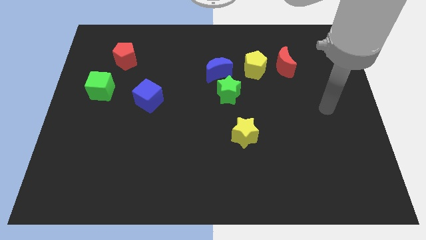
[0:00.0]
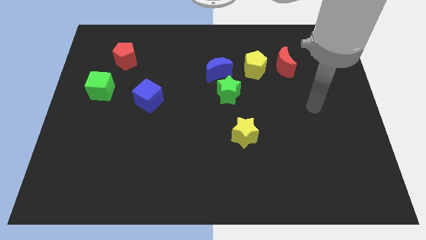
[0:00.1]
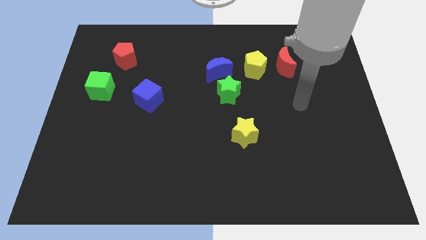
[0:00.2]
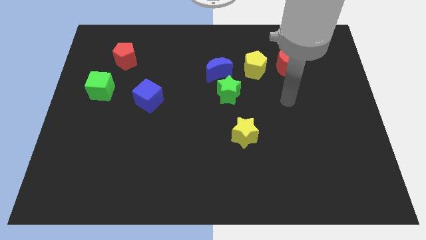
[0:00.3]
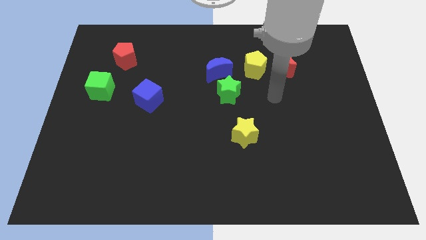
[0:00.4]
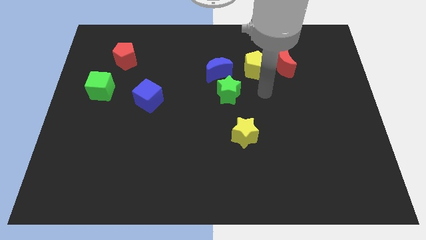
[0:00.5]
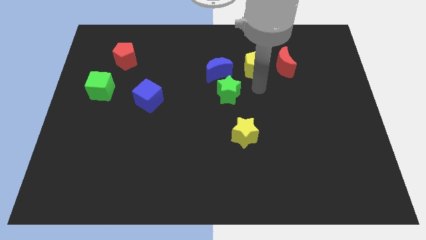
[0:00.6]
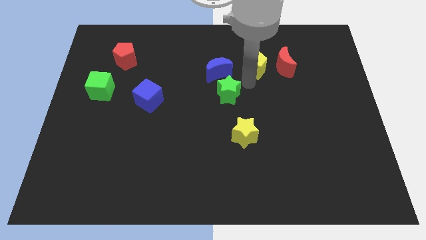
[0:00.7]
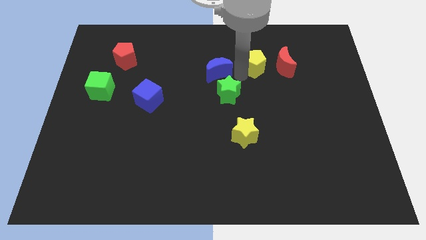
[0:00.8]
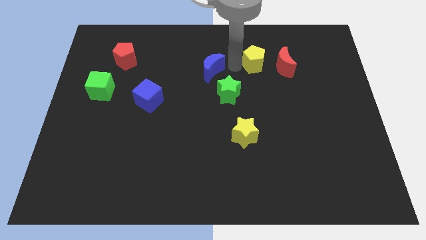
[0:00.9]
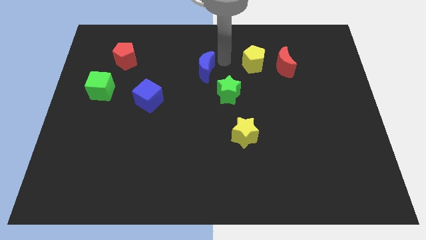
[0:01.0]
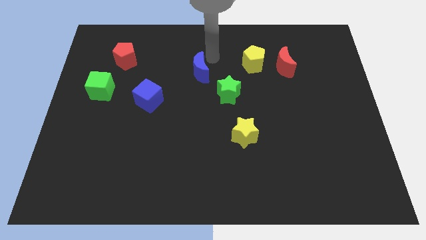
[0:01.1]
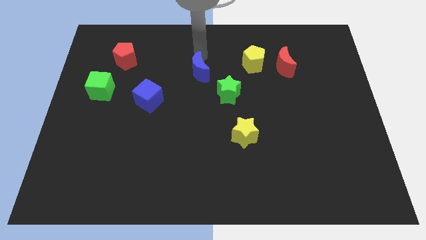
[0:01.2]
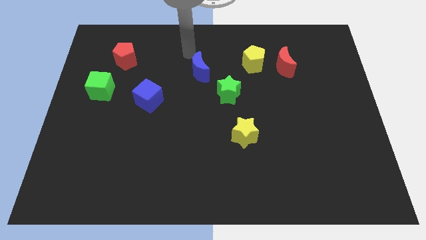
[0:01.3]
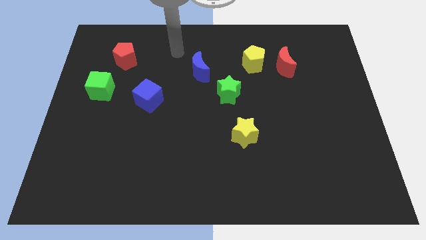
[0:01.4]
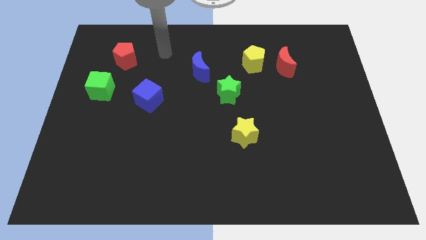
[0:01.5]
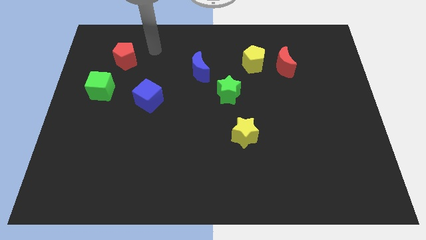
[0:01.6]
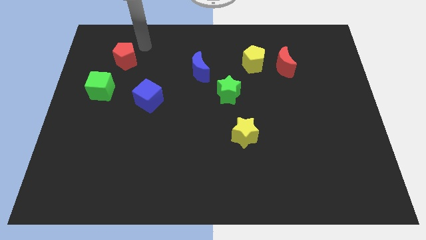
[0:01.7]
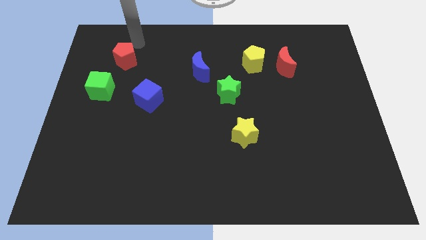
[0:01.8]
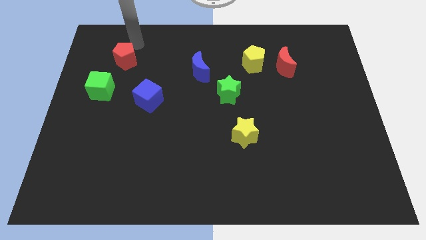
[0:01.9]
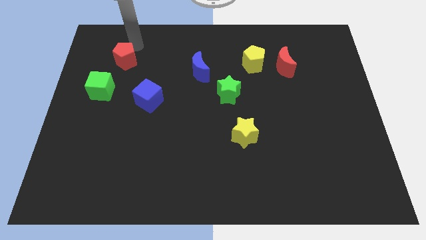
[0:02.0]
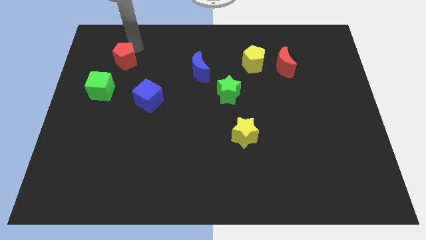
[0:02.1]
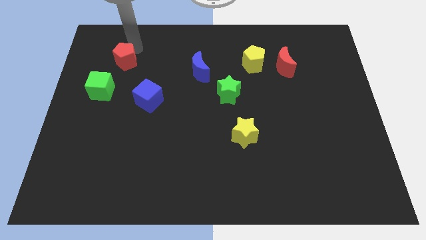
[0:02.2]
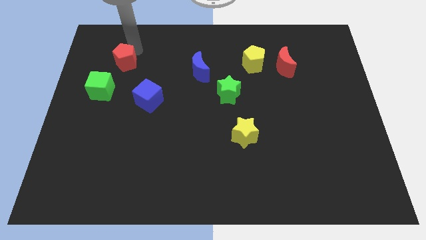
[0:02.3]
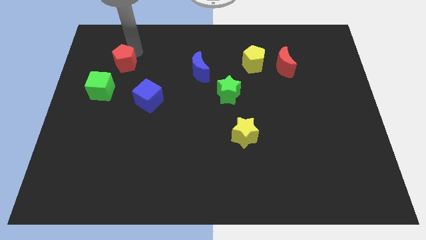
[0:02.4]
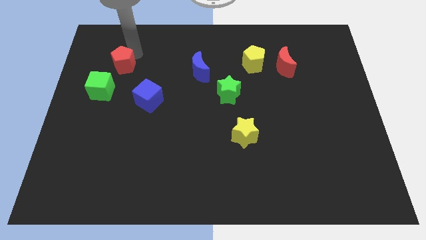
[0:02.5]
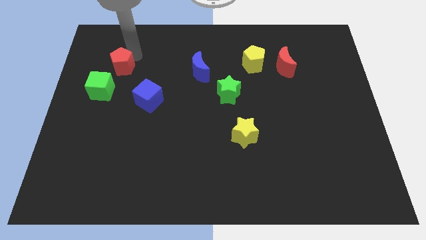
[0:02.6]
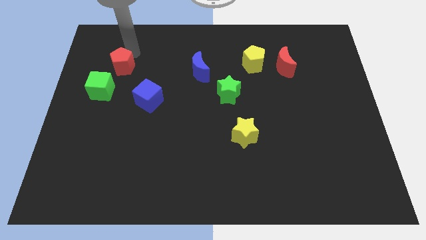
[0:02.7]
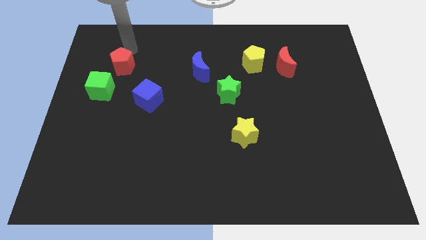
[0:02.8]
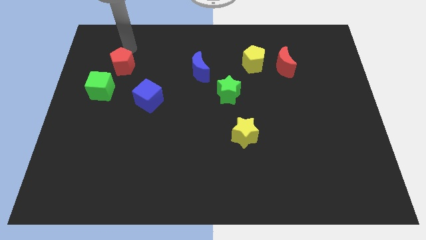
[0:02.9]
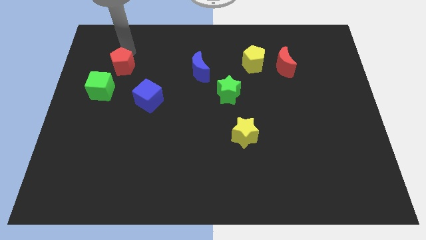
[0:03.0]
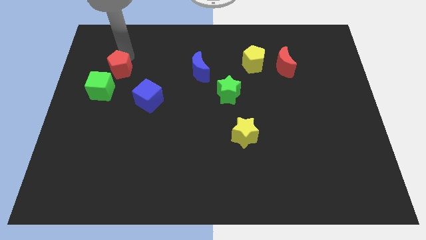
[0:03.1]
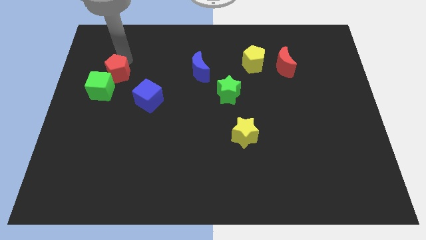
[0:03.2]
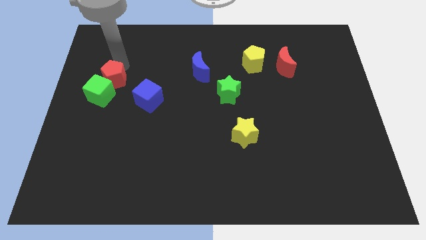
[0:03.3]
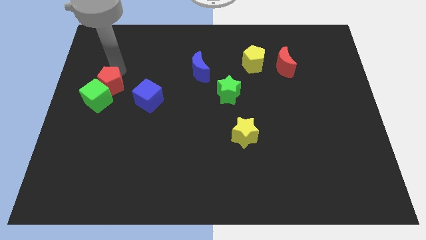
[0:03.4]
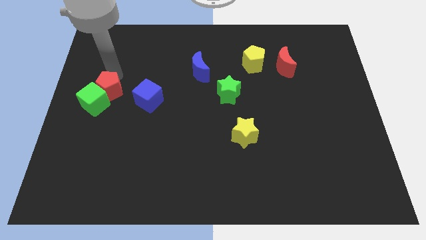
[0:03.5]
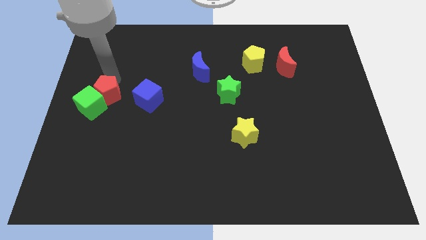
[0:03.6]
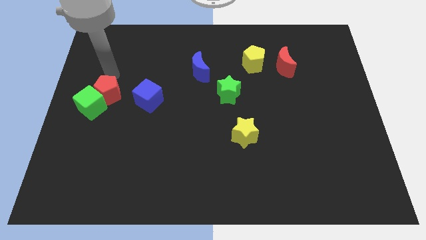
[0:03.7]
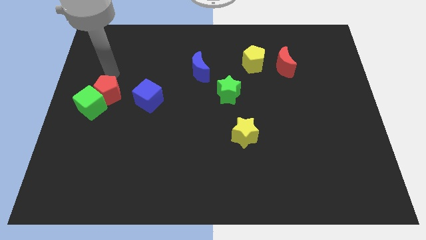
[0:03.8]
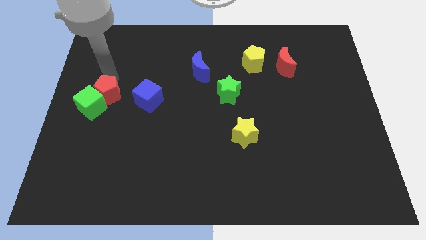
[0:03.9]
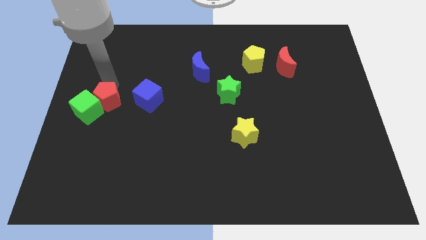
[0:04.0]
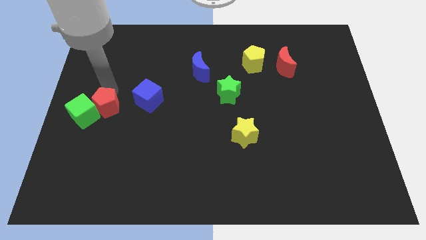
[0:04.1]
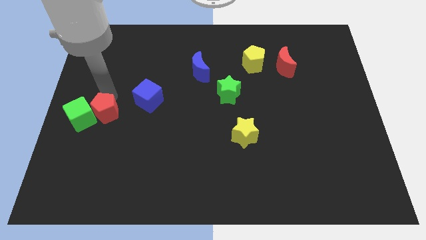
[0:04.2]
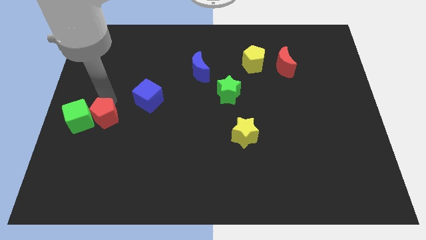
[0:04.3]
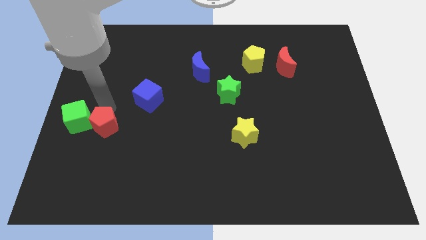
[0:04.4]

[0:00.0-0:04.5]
push the red pentagon downwards

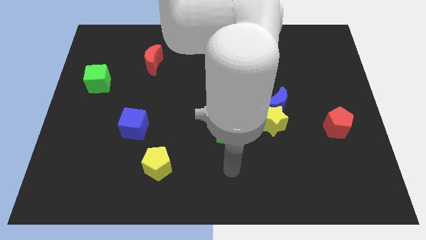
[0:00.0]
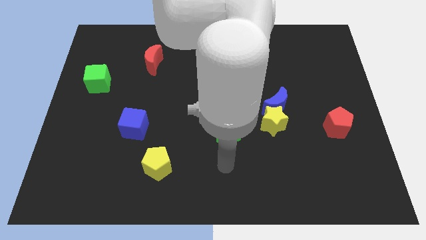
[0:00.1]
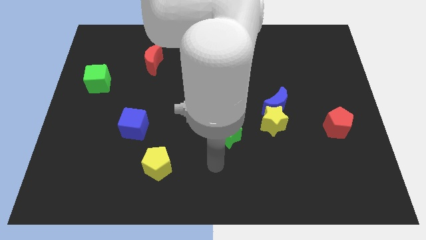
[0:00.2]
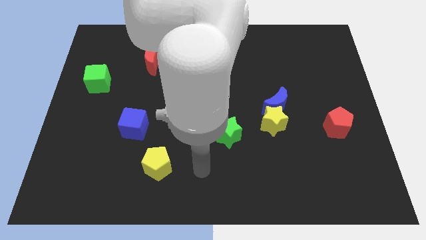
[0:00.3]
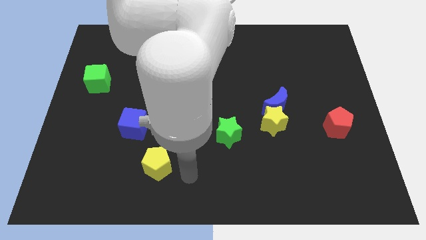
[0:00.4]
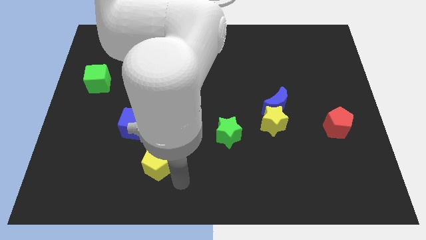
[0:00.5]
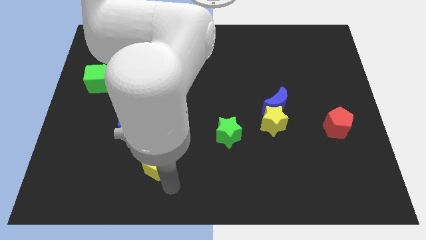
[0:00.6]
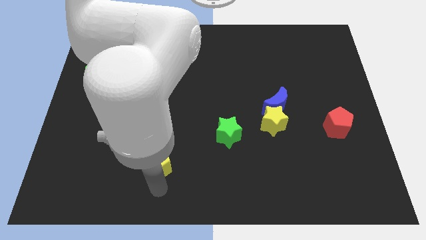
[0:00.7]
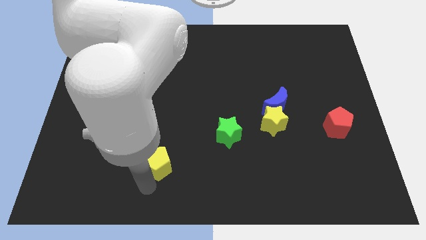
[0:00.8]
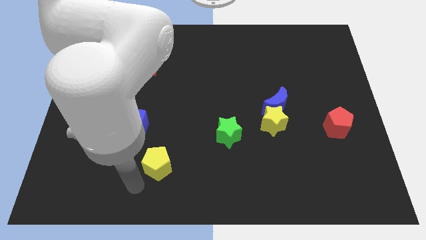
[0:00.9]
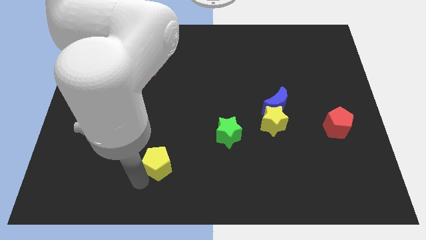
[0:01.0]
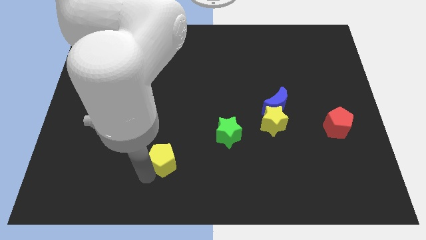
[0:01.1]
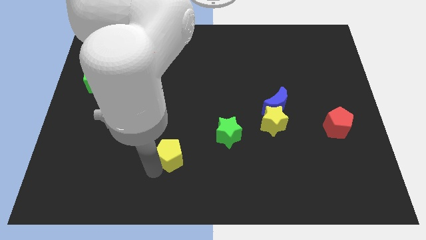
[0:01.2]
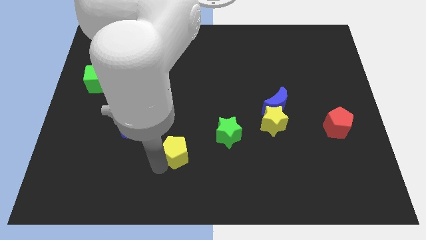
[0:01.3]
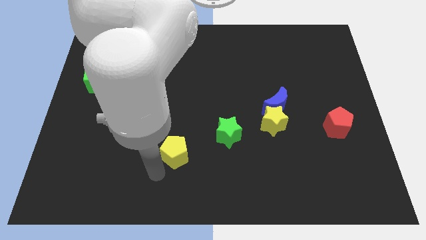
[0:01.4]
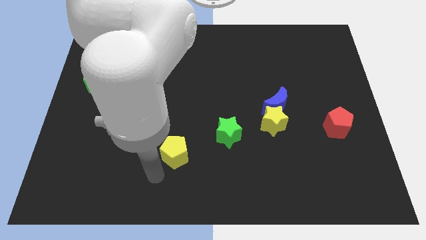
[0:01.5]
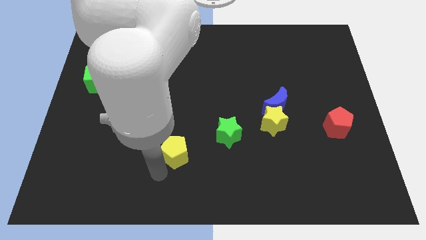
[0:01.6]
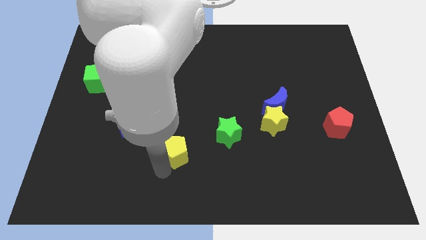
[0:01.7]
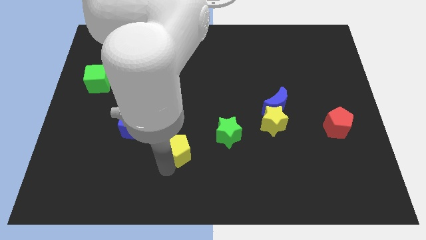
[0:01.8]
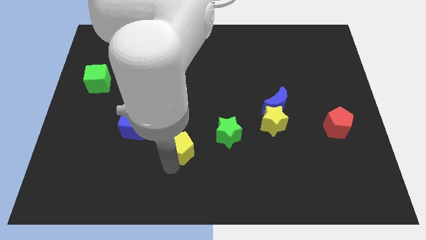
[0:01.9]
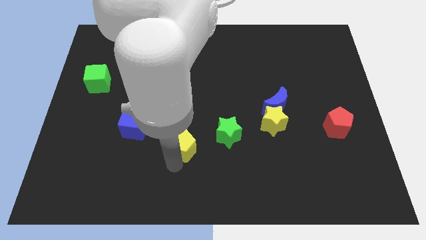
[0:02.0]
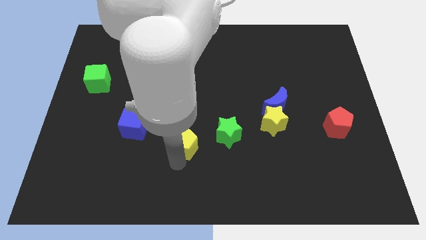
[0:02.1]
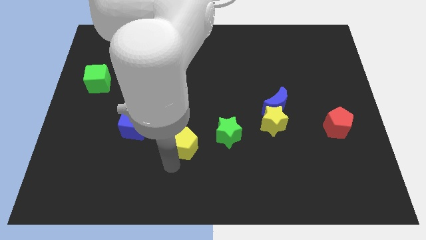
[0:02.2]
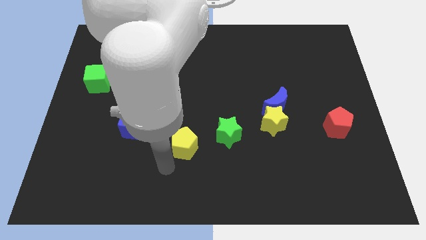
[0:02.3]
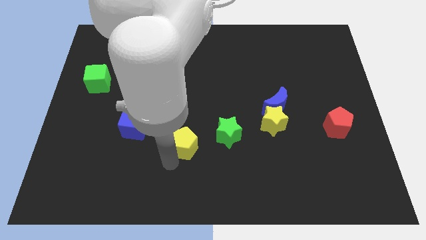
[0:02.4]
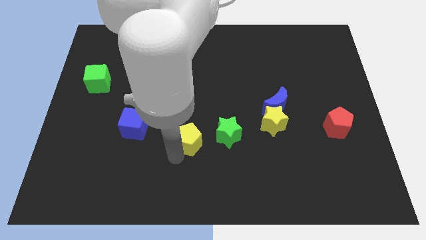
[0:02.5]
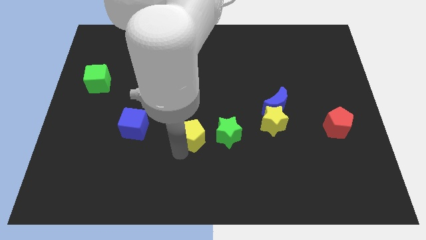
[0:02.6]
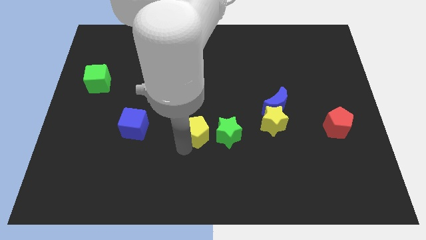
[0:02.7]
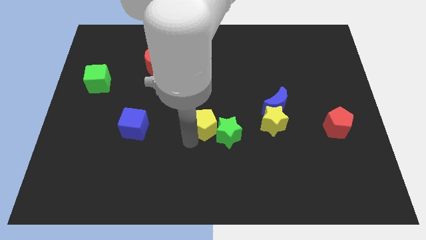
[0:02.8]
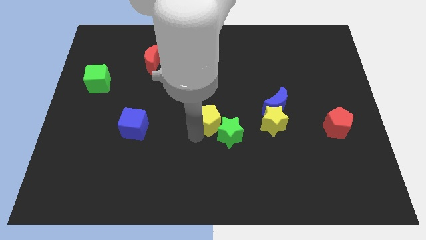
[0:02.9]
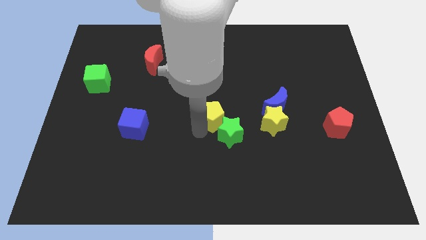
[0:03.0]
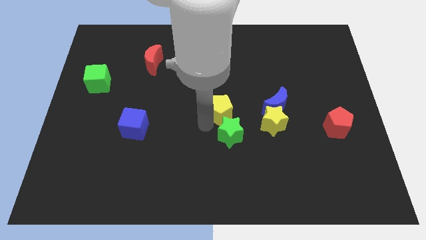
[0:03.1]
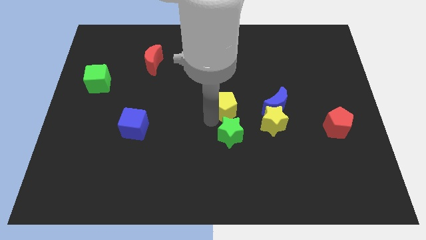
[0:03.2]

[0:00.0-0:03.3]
slide the yellow pentagon upwards and to the right diagonally
